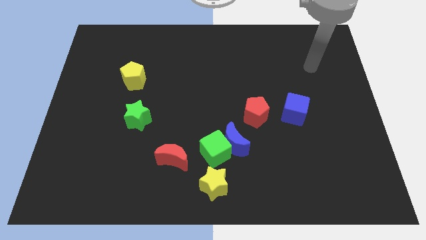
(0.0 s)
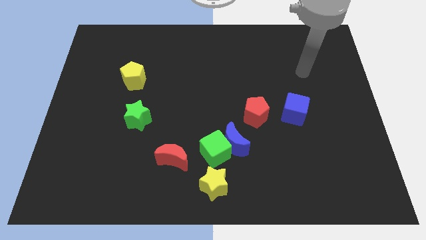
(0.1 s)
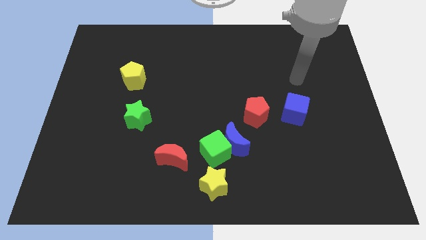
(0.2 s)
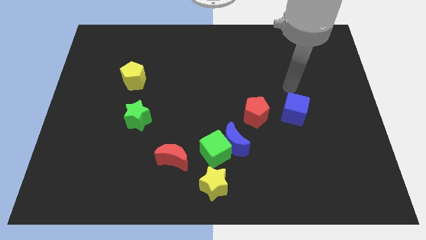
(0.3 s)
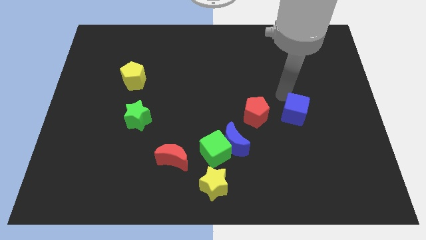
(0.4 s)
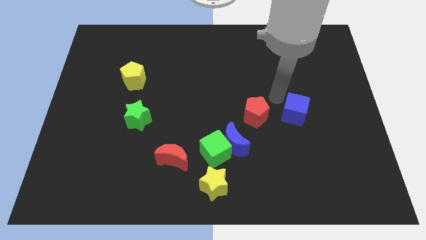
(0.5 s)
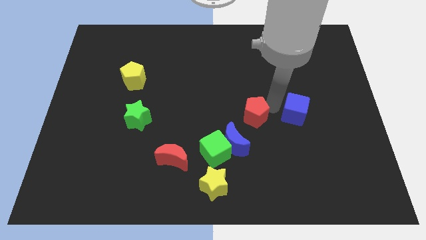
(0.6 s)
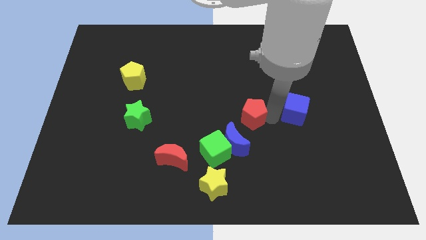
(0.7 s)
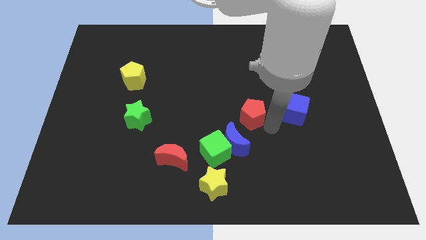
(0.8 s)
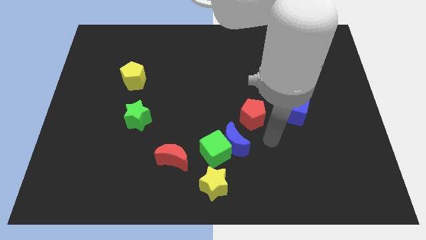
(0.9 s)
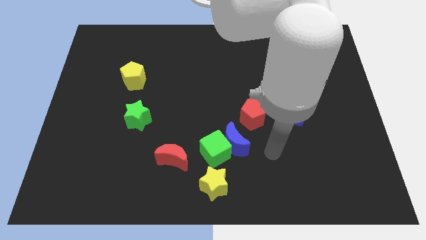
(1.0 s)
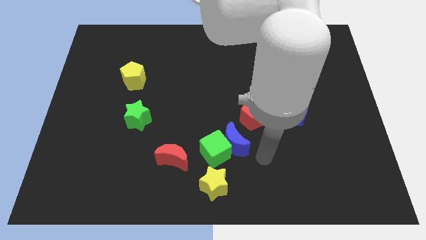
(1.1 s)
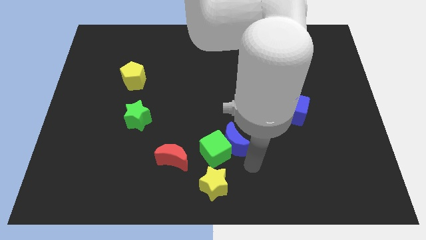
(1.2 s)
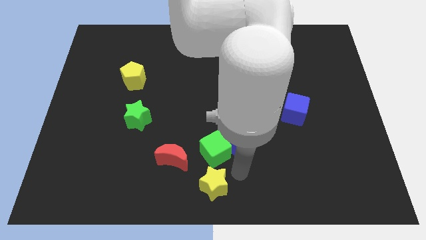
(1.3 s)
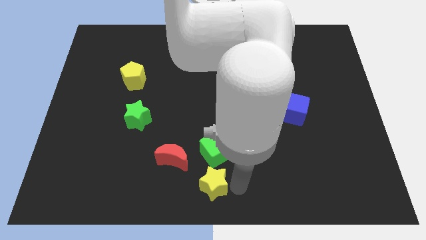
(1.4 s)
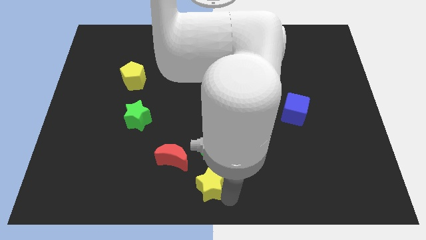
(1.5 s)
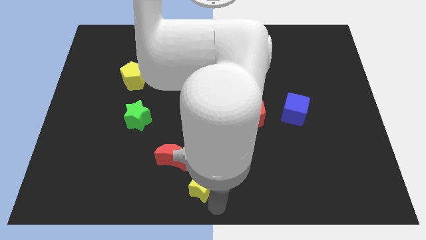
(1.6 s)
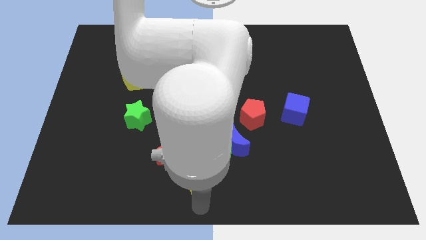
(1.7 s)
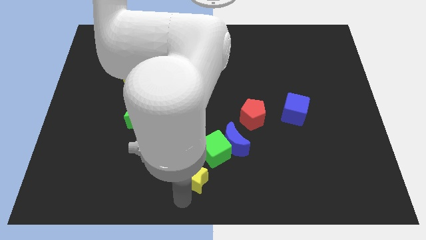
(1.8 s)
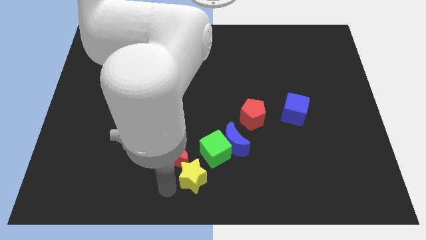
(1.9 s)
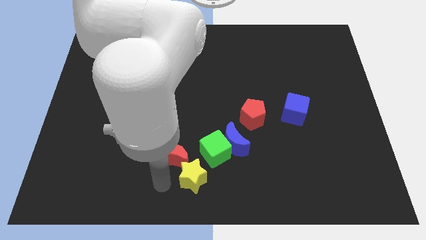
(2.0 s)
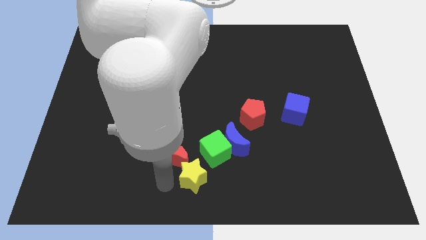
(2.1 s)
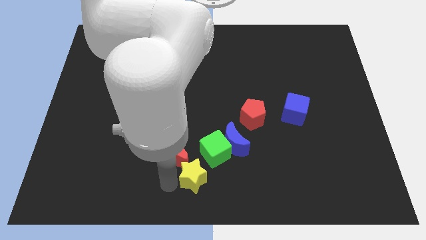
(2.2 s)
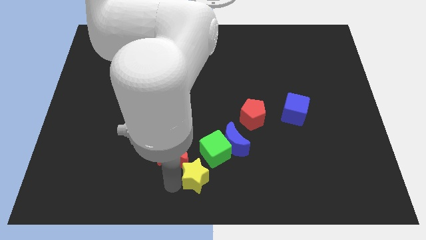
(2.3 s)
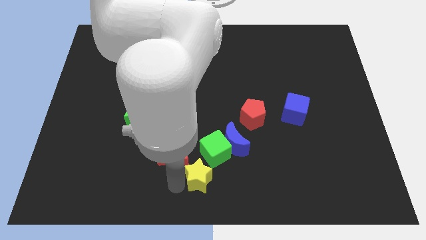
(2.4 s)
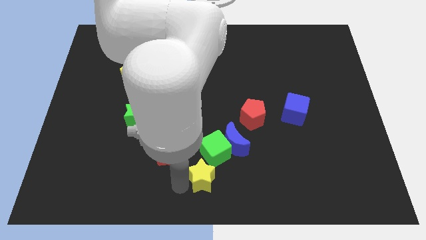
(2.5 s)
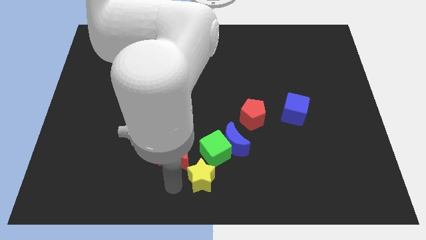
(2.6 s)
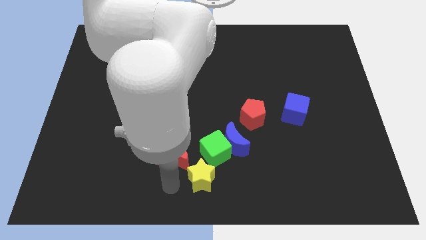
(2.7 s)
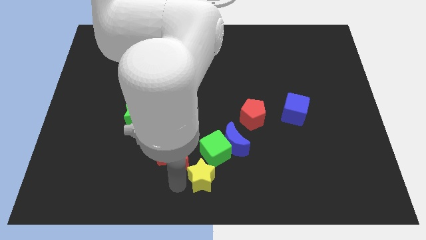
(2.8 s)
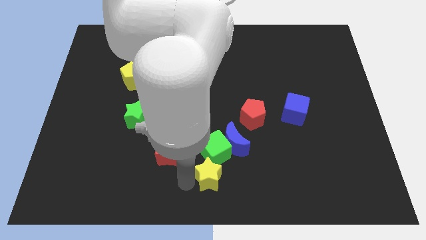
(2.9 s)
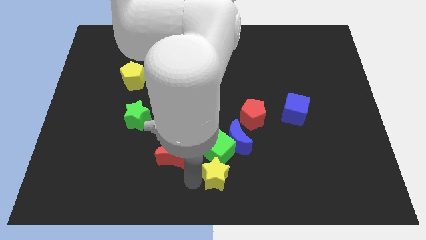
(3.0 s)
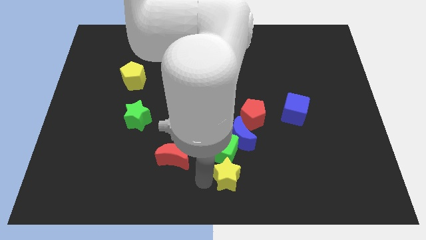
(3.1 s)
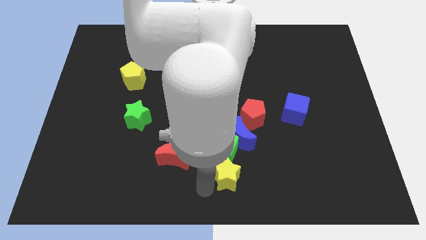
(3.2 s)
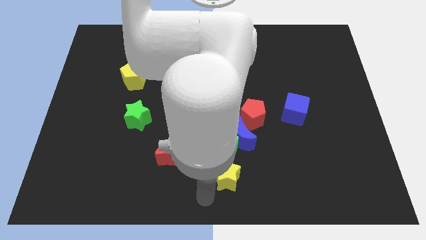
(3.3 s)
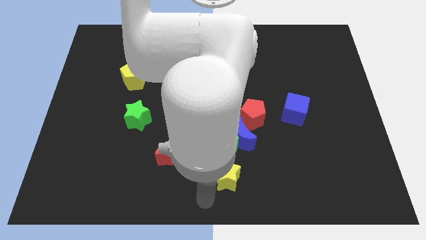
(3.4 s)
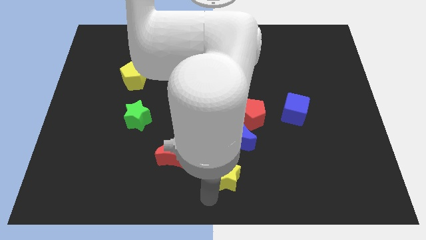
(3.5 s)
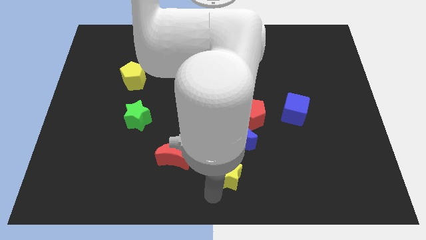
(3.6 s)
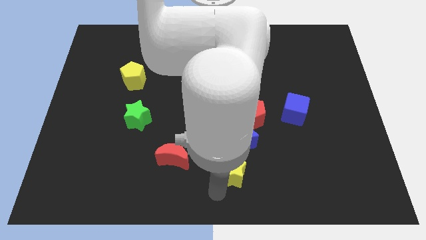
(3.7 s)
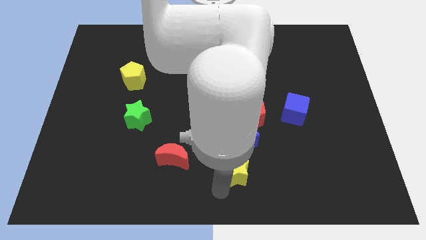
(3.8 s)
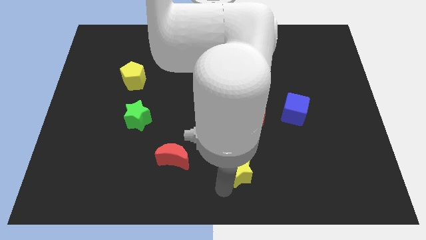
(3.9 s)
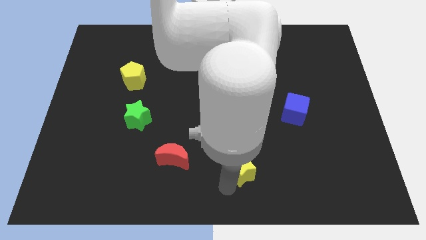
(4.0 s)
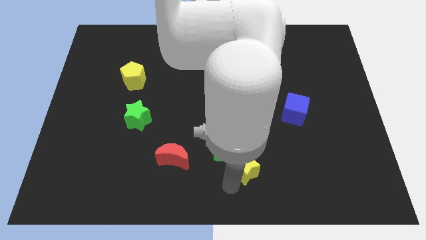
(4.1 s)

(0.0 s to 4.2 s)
slide the yellow star a little diagonally up and to the right

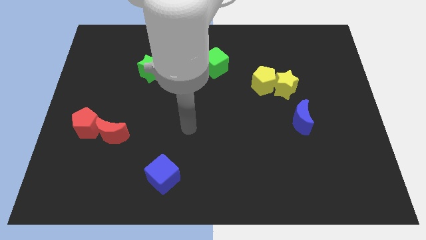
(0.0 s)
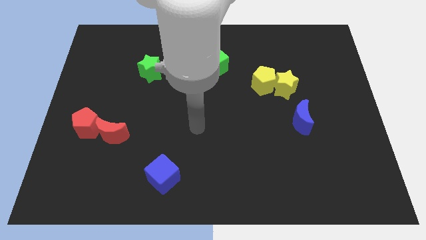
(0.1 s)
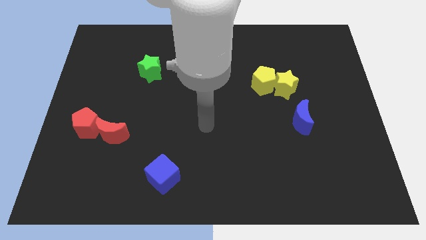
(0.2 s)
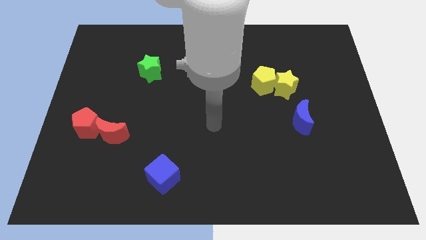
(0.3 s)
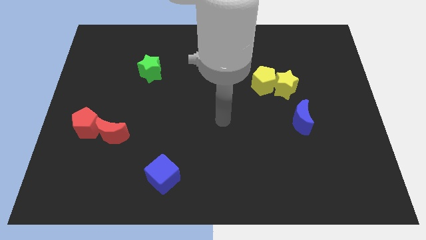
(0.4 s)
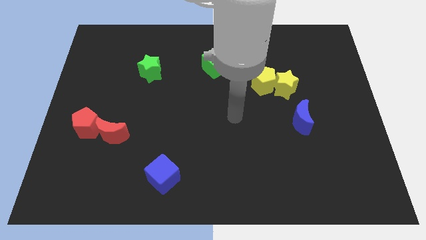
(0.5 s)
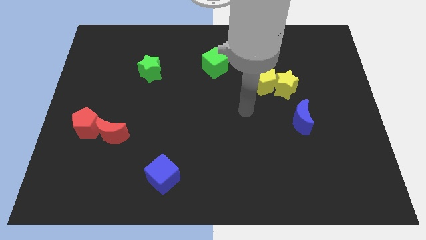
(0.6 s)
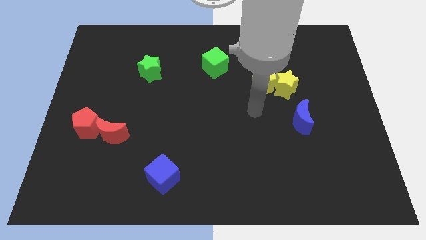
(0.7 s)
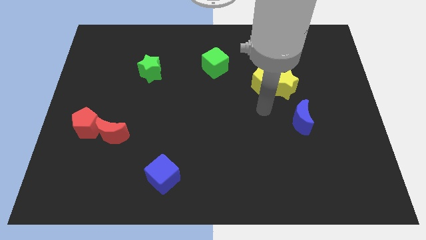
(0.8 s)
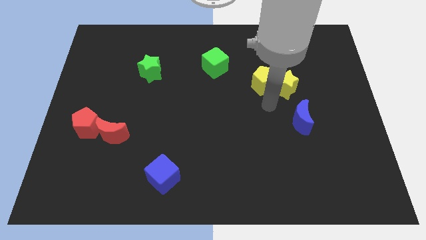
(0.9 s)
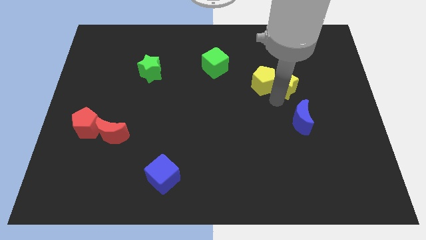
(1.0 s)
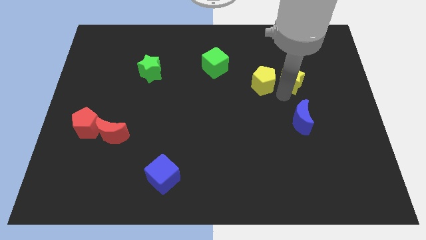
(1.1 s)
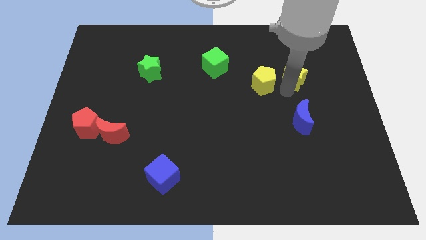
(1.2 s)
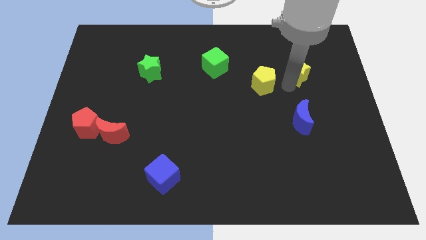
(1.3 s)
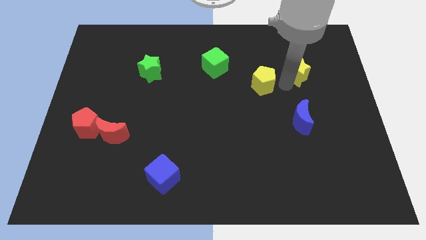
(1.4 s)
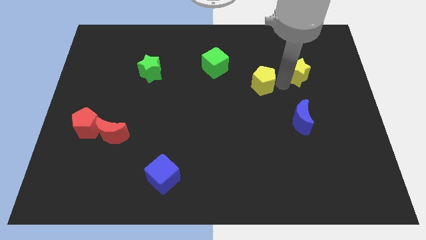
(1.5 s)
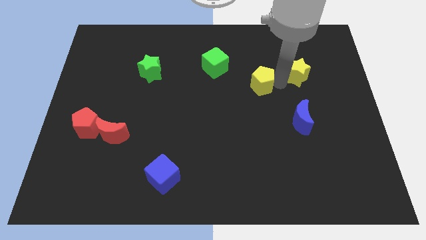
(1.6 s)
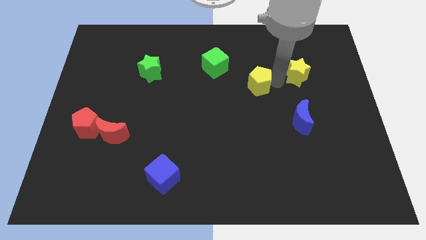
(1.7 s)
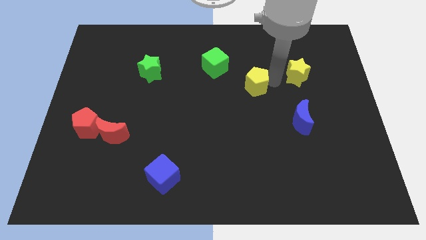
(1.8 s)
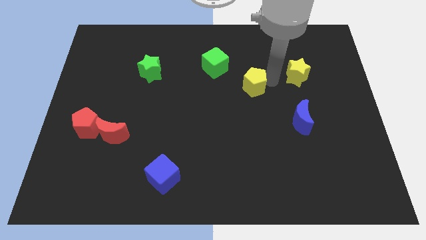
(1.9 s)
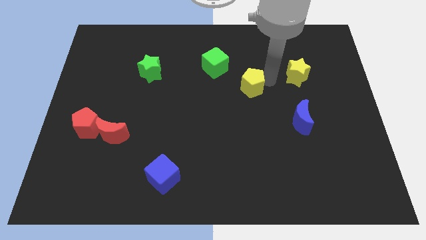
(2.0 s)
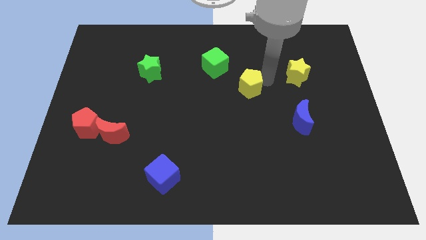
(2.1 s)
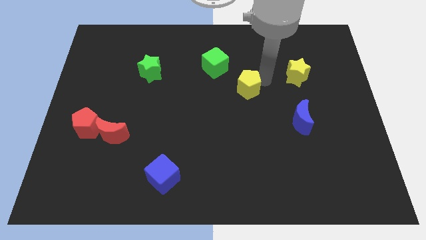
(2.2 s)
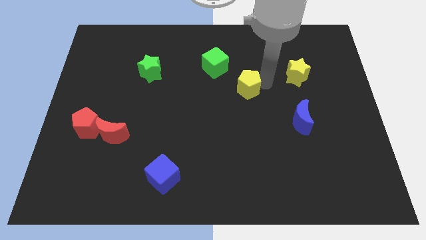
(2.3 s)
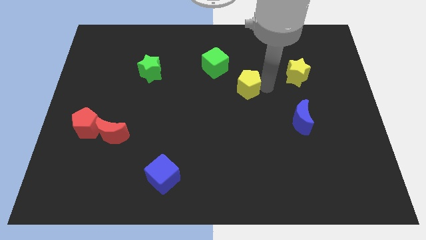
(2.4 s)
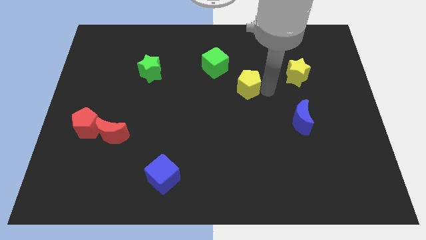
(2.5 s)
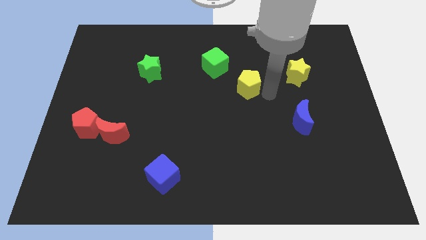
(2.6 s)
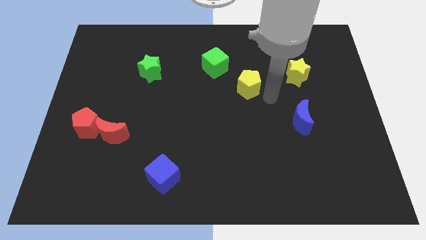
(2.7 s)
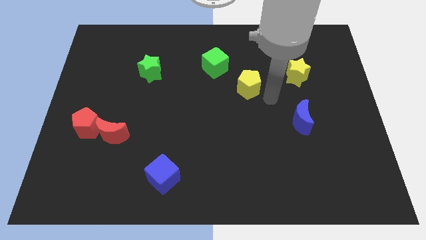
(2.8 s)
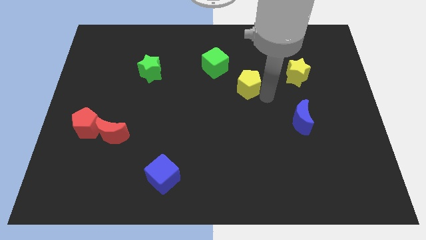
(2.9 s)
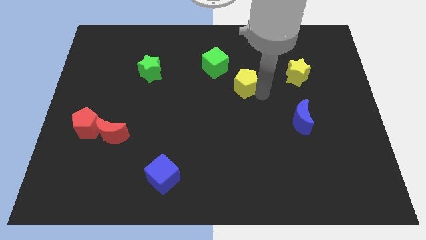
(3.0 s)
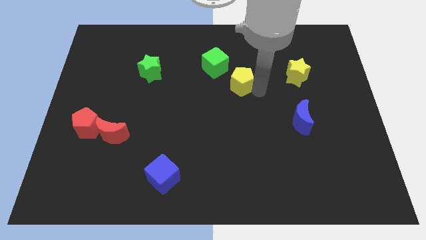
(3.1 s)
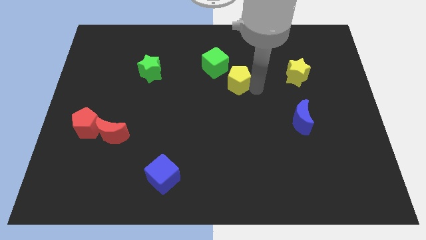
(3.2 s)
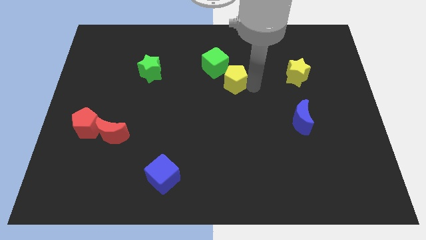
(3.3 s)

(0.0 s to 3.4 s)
slightly push the yellow pentagon to the left
